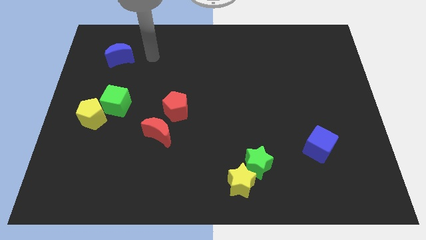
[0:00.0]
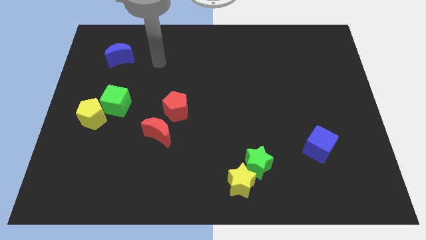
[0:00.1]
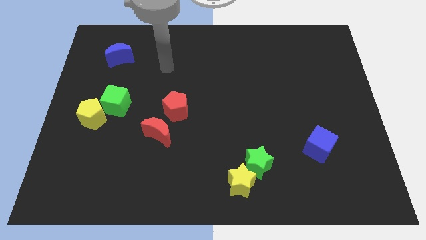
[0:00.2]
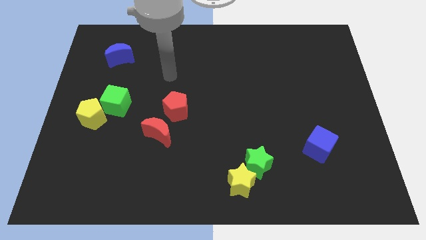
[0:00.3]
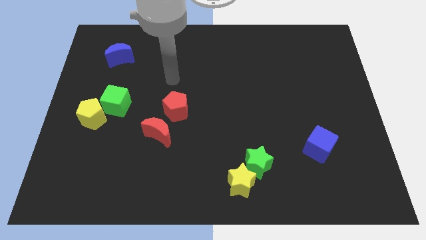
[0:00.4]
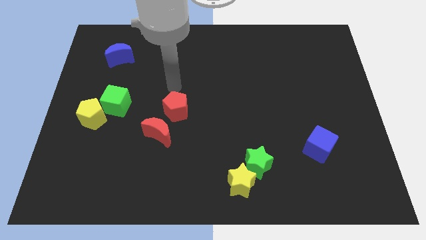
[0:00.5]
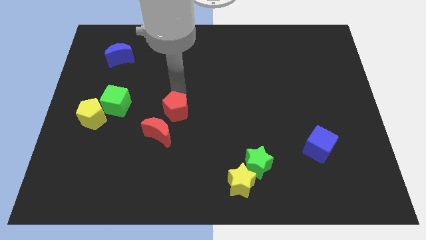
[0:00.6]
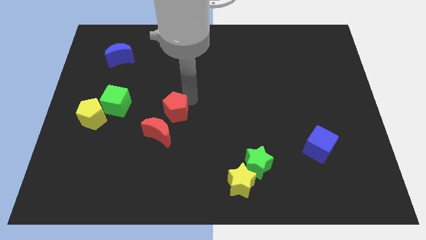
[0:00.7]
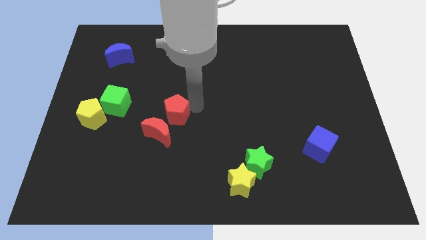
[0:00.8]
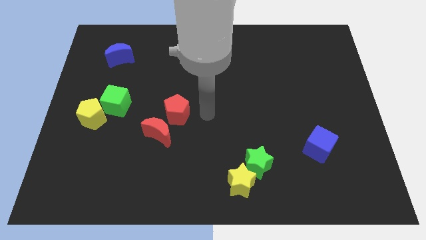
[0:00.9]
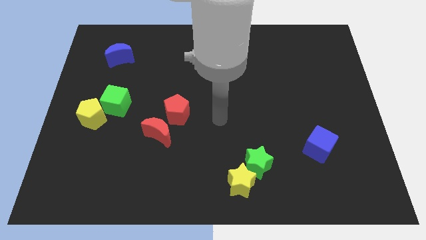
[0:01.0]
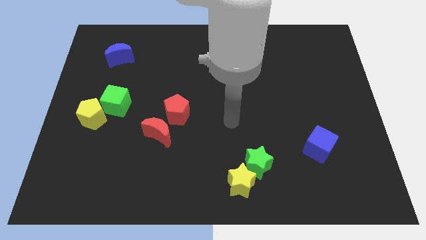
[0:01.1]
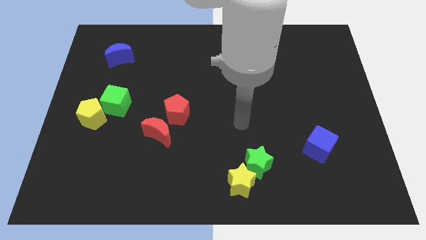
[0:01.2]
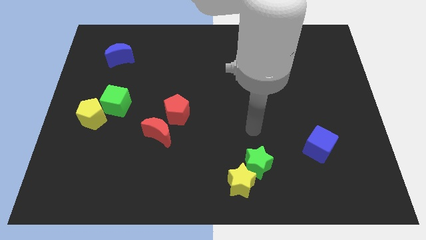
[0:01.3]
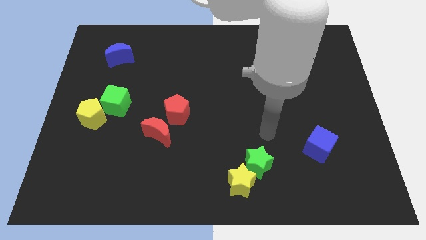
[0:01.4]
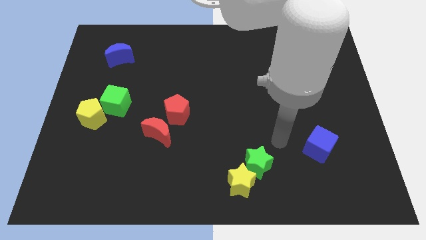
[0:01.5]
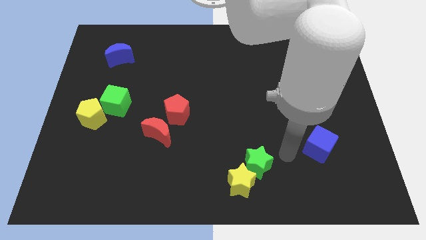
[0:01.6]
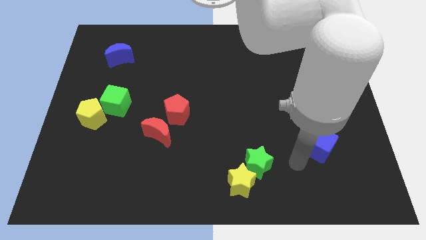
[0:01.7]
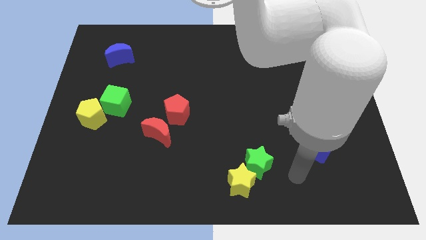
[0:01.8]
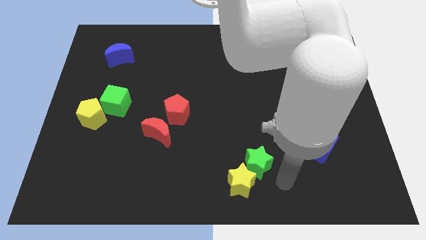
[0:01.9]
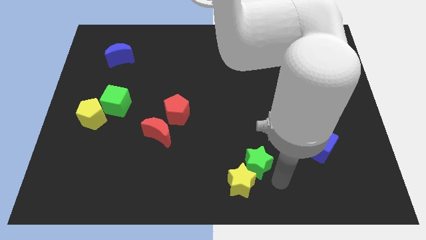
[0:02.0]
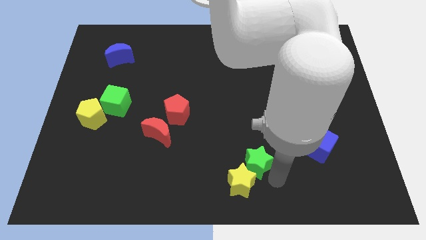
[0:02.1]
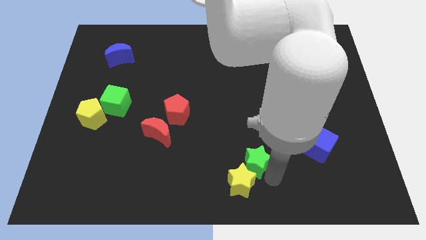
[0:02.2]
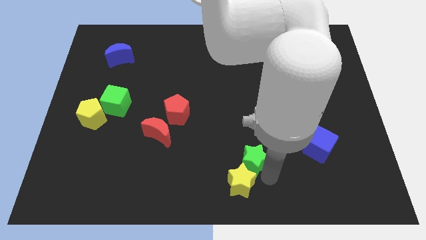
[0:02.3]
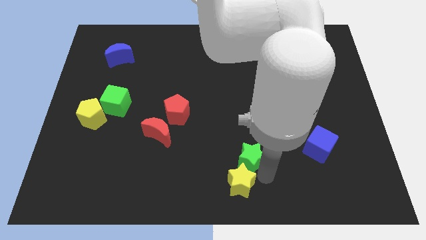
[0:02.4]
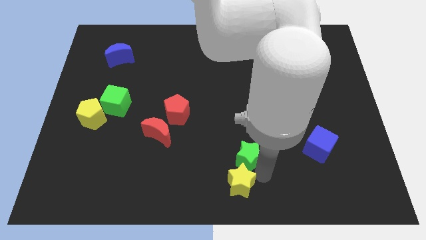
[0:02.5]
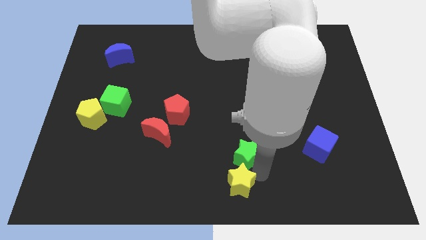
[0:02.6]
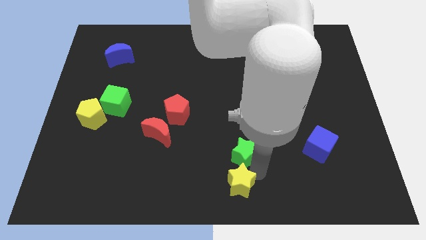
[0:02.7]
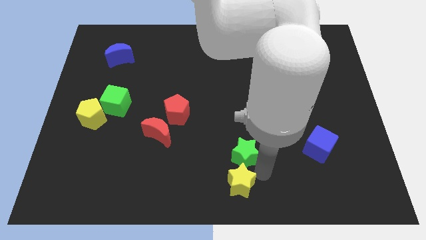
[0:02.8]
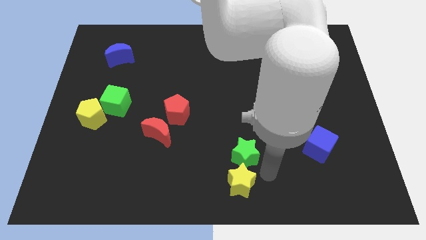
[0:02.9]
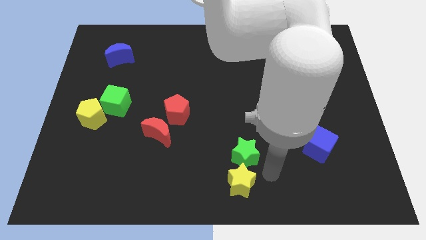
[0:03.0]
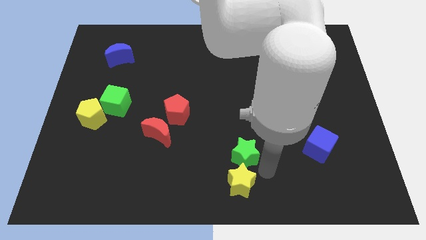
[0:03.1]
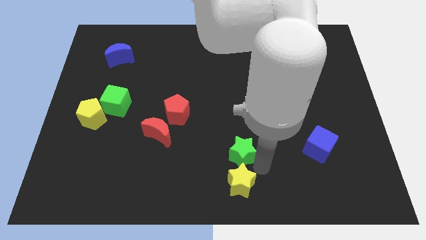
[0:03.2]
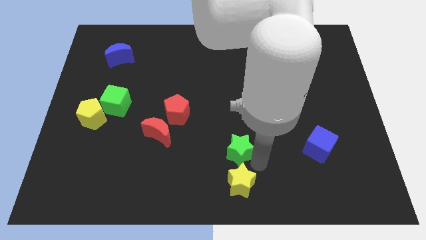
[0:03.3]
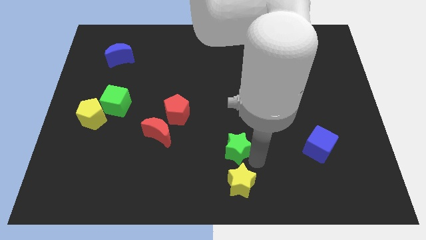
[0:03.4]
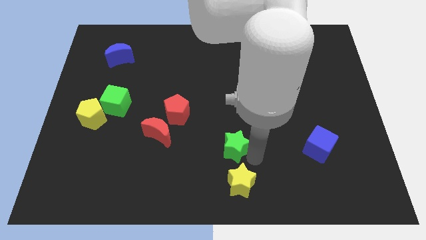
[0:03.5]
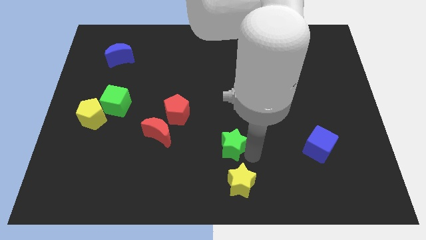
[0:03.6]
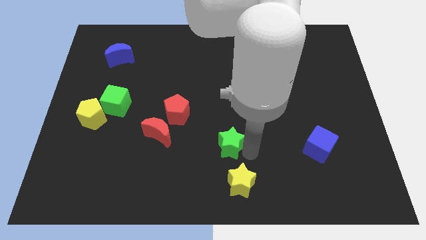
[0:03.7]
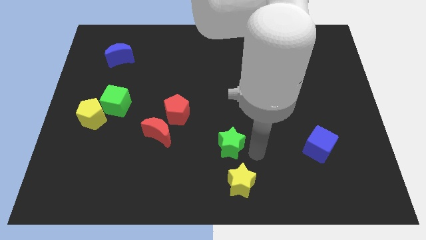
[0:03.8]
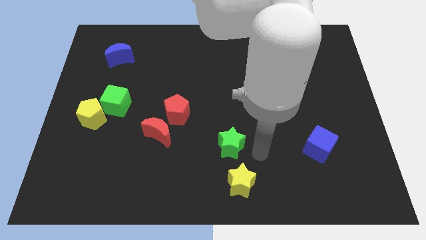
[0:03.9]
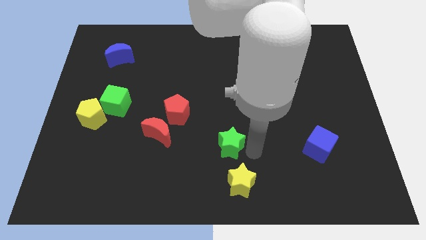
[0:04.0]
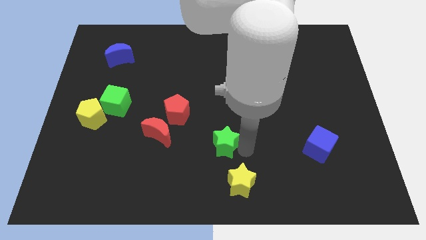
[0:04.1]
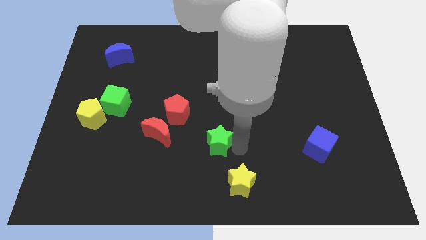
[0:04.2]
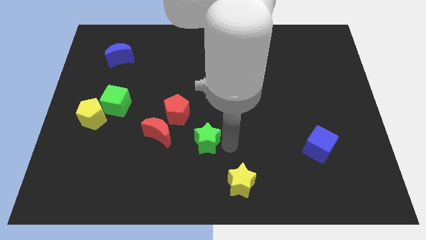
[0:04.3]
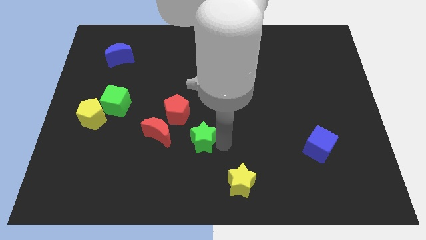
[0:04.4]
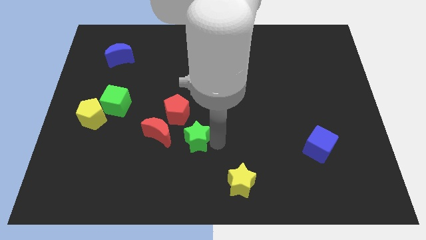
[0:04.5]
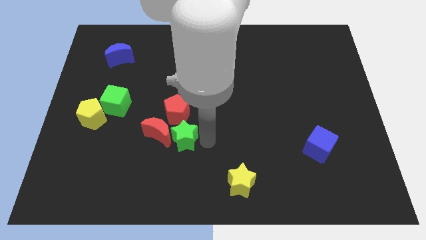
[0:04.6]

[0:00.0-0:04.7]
push the green star next to the red moon

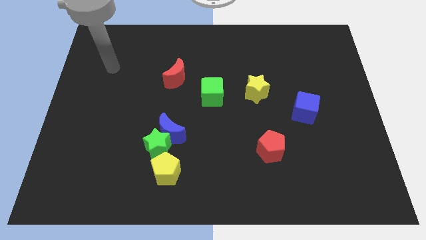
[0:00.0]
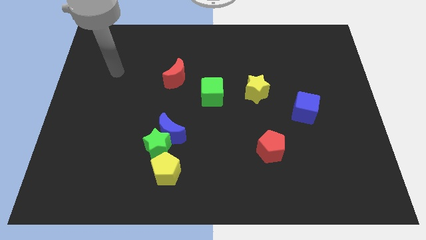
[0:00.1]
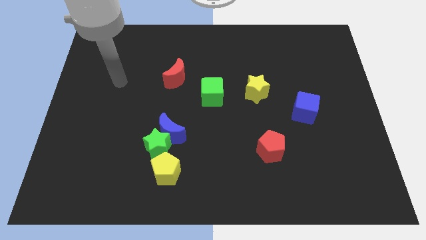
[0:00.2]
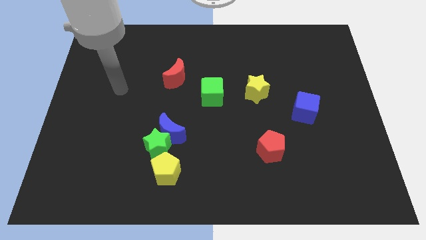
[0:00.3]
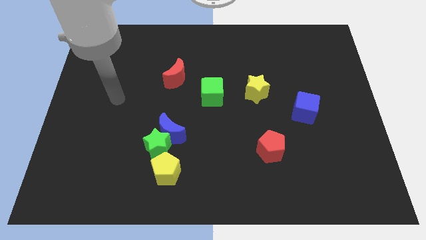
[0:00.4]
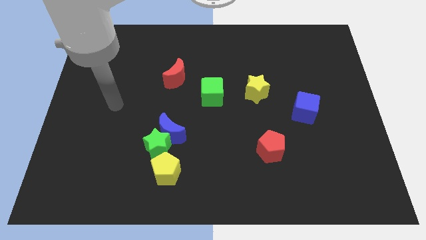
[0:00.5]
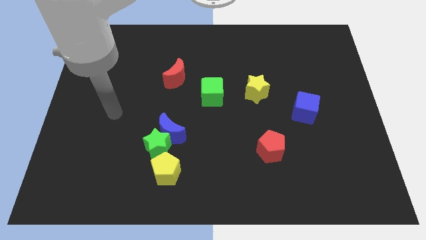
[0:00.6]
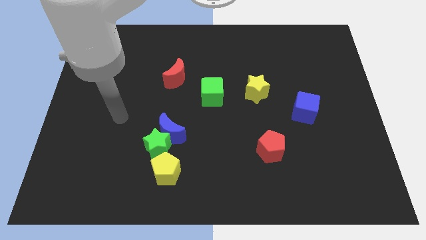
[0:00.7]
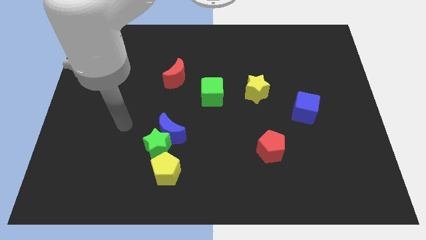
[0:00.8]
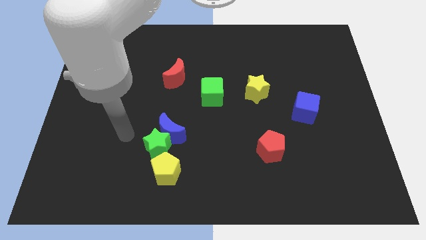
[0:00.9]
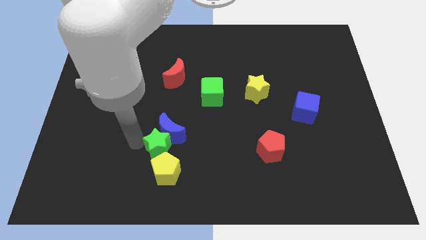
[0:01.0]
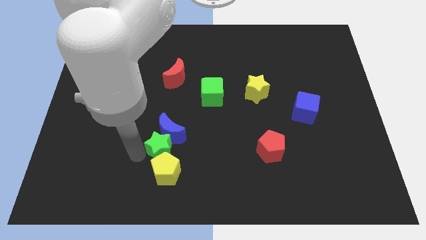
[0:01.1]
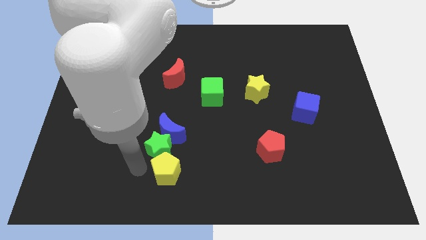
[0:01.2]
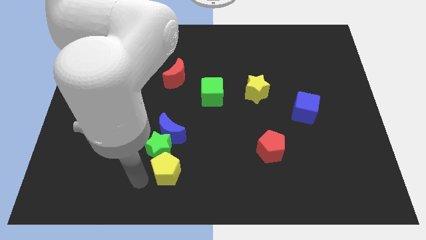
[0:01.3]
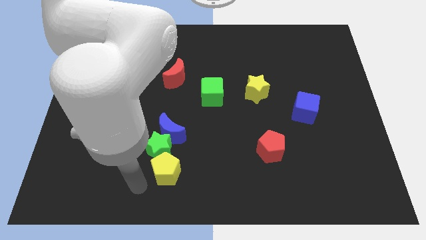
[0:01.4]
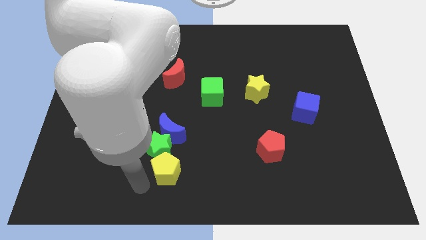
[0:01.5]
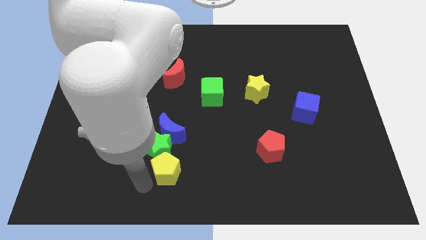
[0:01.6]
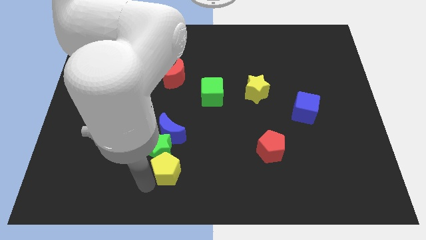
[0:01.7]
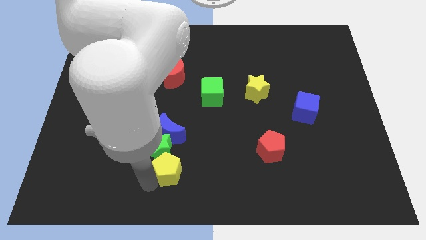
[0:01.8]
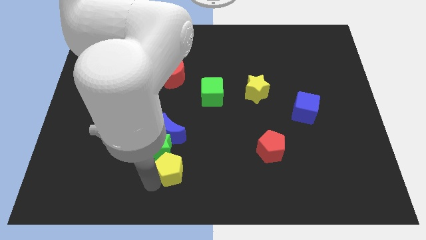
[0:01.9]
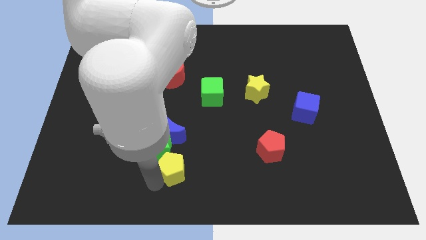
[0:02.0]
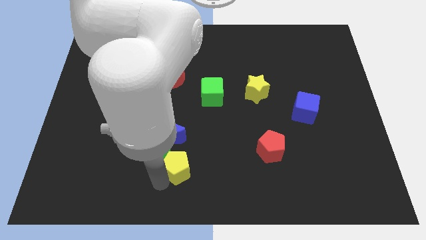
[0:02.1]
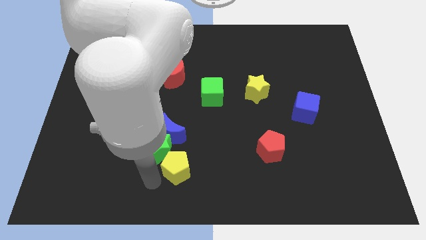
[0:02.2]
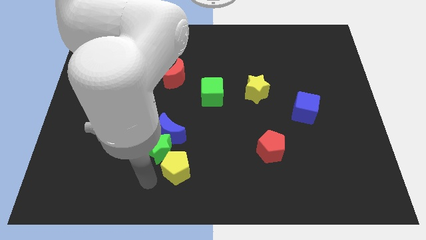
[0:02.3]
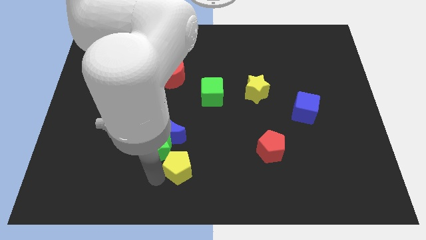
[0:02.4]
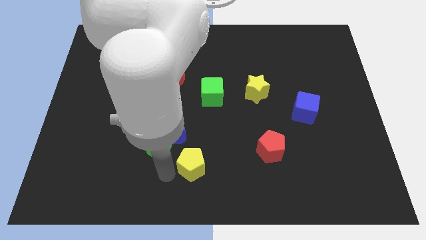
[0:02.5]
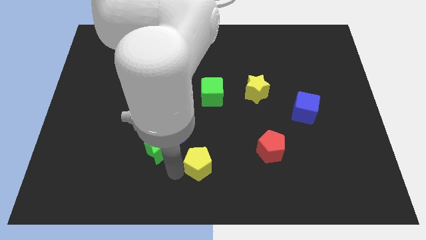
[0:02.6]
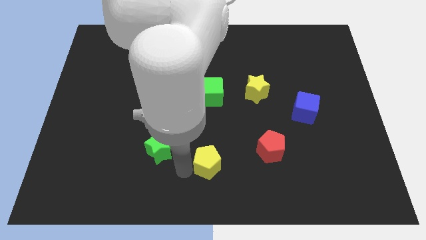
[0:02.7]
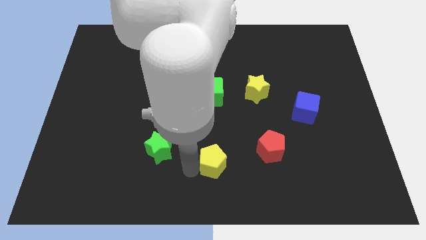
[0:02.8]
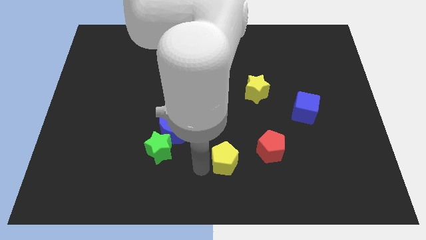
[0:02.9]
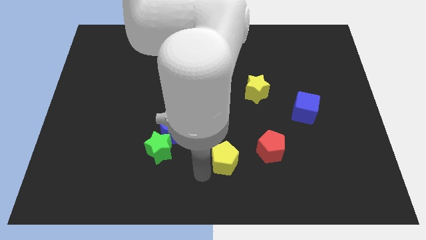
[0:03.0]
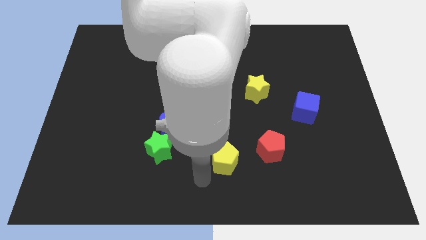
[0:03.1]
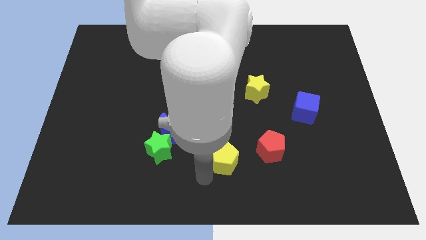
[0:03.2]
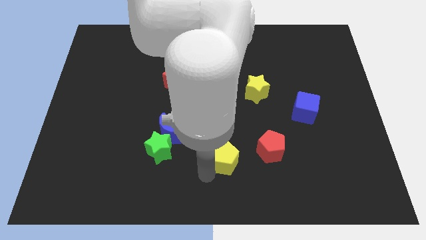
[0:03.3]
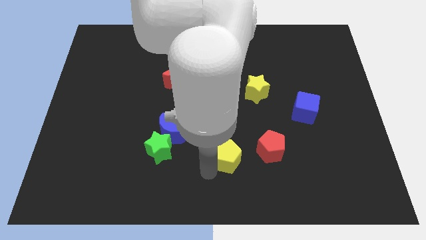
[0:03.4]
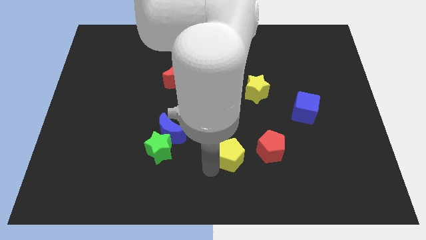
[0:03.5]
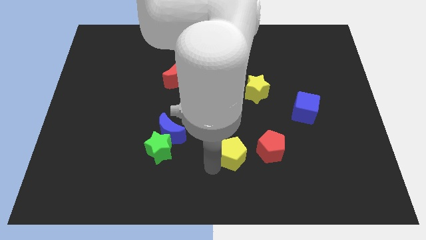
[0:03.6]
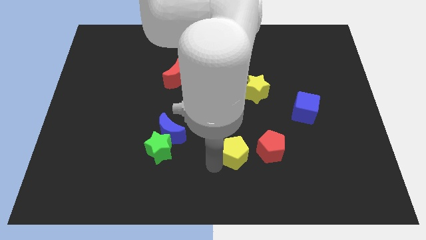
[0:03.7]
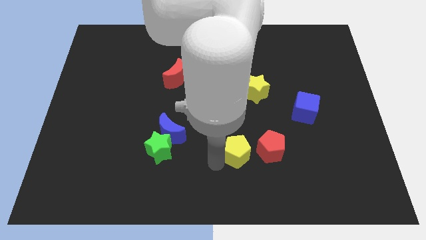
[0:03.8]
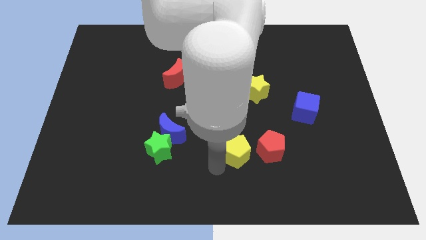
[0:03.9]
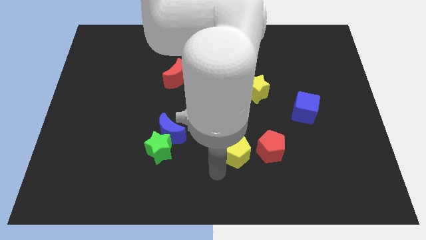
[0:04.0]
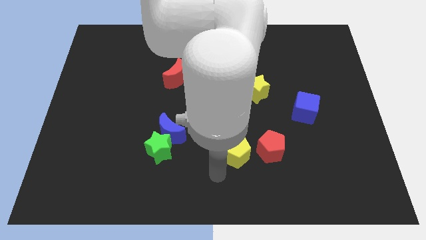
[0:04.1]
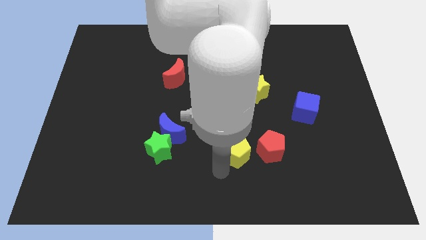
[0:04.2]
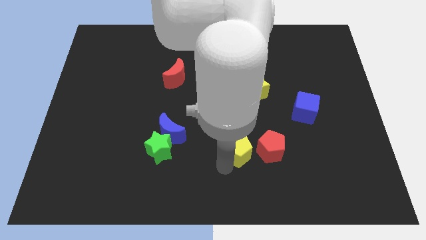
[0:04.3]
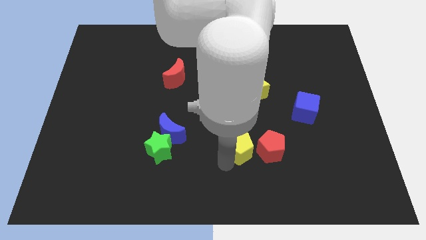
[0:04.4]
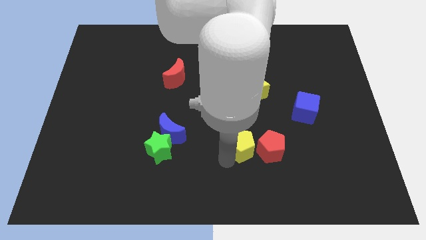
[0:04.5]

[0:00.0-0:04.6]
put the yellow pentagon next to the red pentagon
